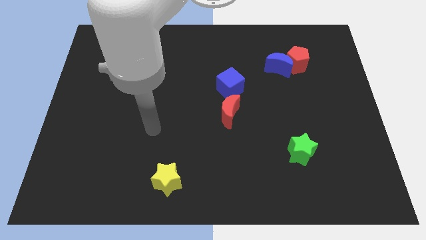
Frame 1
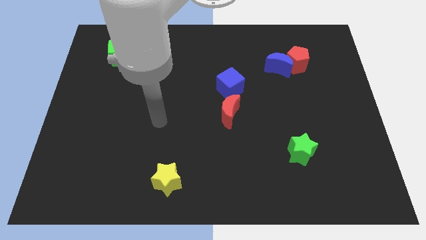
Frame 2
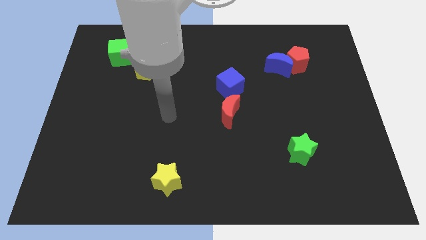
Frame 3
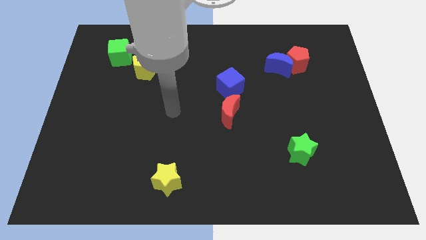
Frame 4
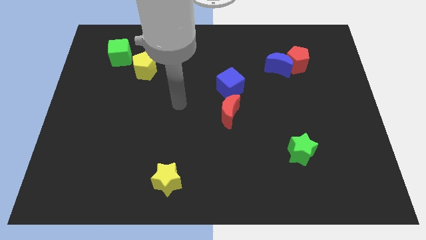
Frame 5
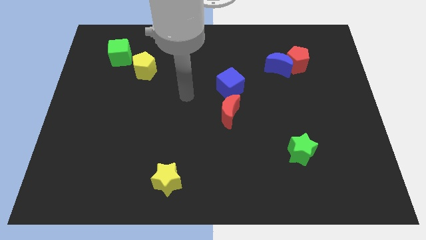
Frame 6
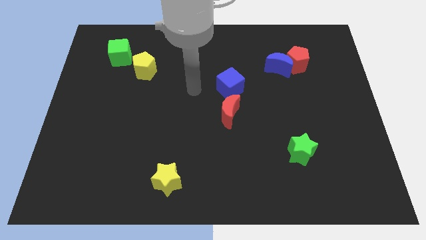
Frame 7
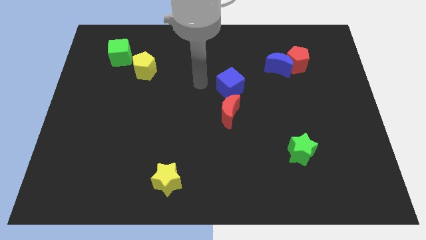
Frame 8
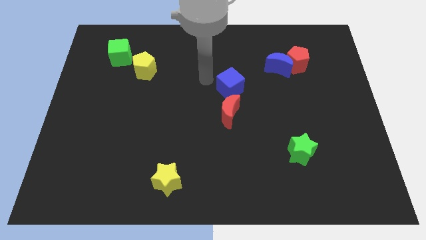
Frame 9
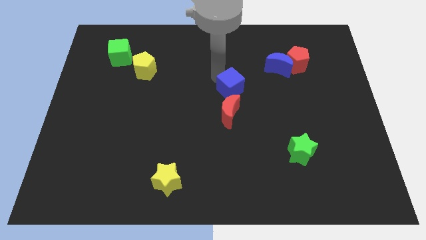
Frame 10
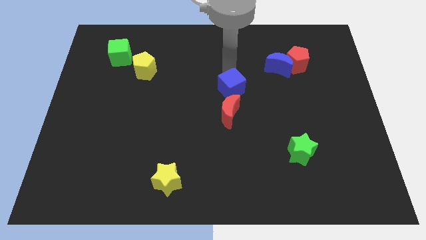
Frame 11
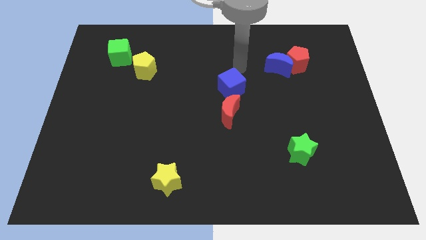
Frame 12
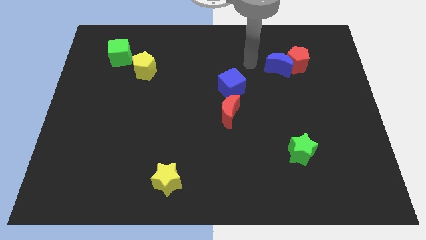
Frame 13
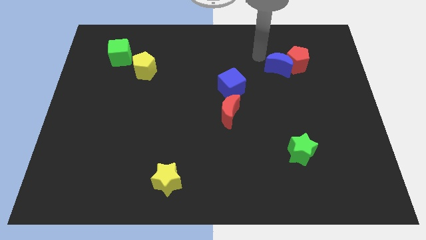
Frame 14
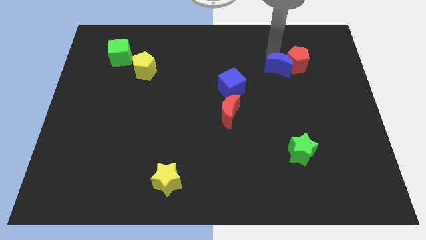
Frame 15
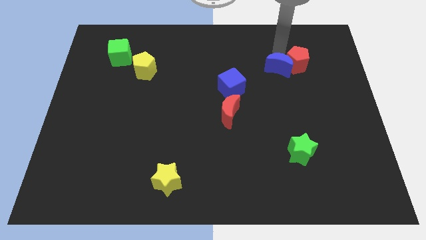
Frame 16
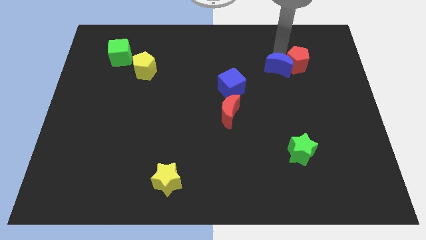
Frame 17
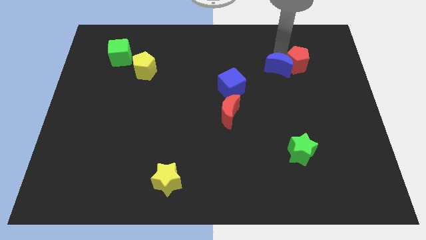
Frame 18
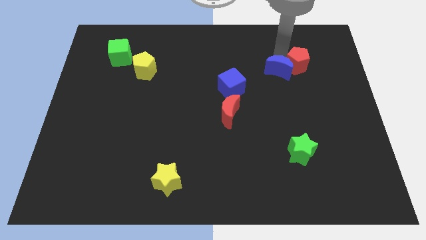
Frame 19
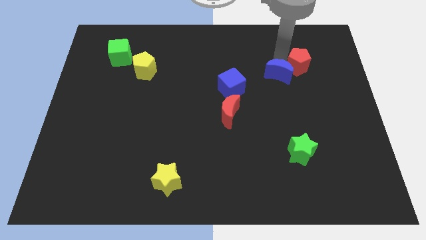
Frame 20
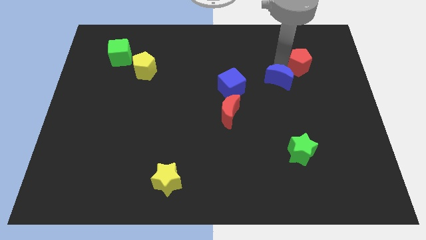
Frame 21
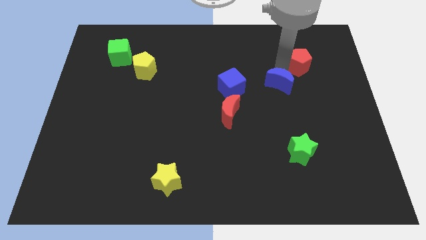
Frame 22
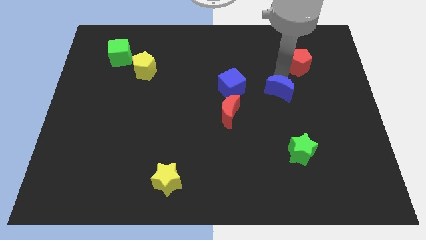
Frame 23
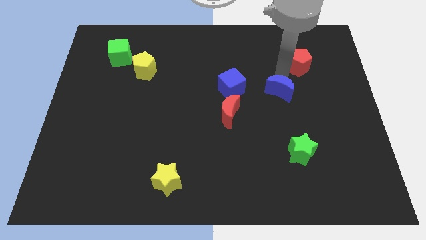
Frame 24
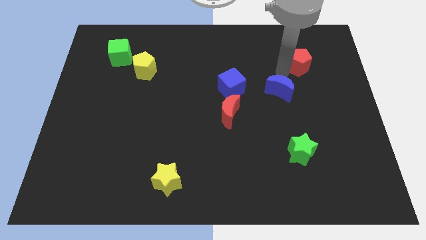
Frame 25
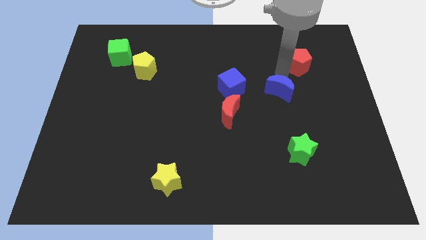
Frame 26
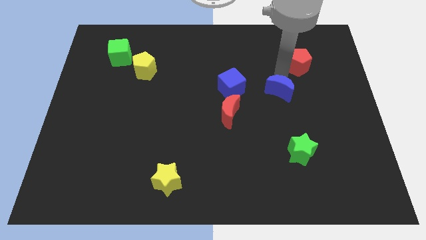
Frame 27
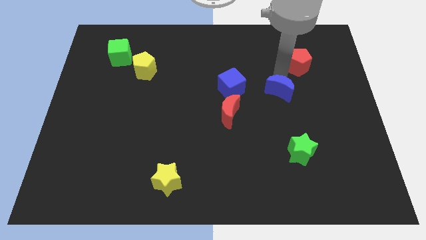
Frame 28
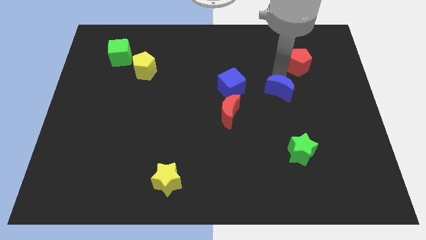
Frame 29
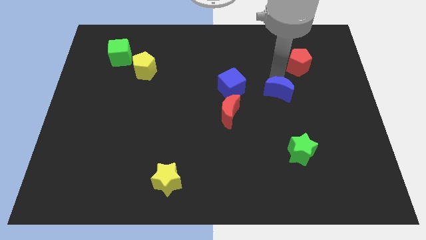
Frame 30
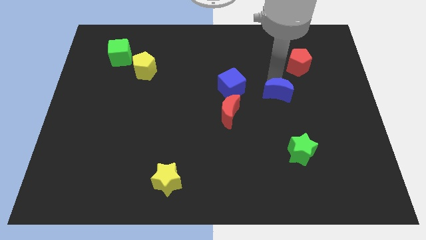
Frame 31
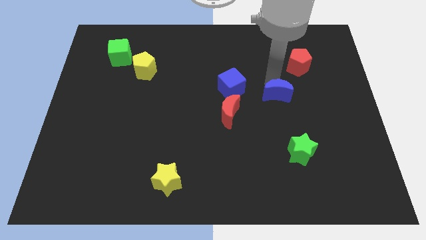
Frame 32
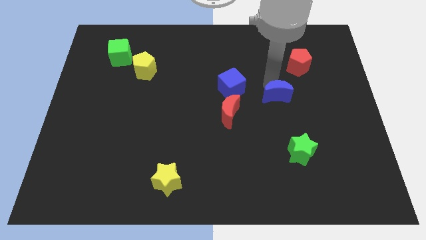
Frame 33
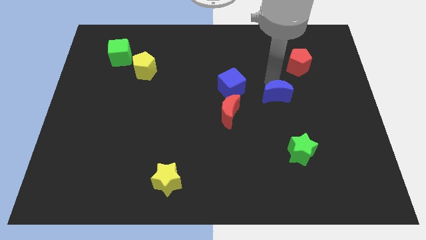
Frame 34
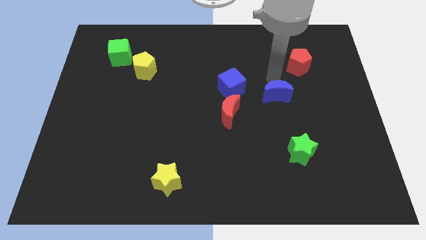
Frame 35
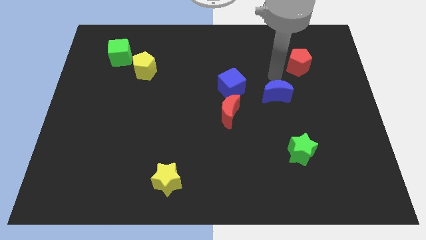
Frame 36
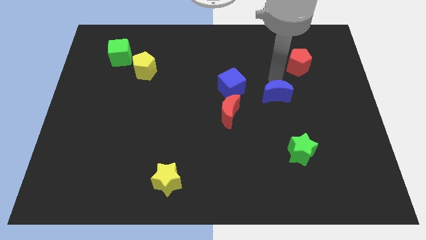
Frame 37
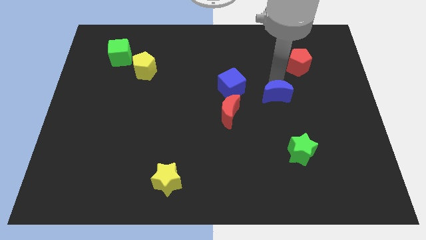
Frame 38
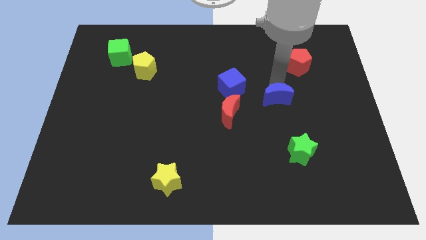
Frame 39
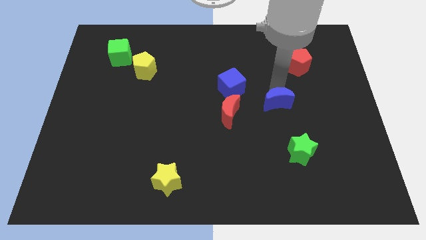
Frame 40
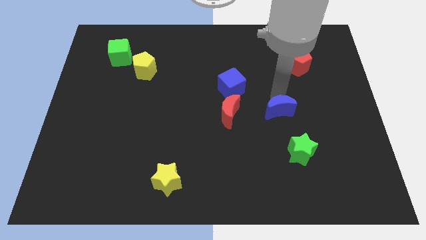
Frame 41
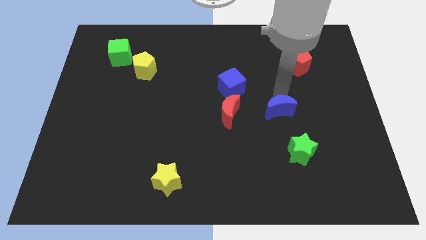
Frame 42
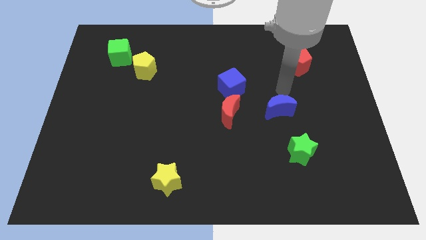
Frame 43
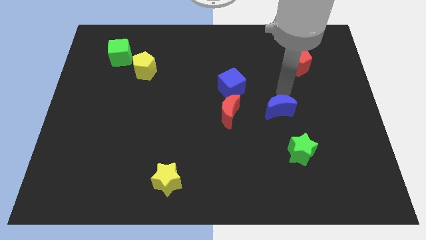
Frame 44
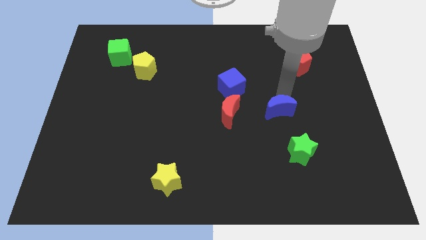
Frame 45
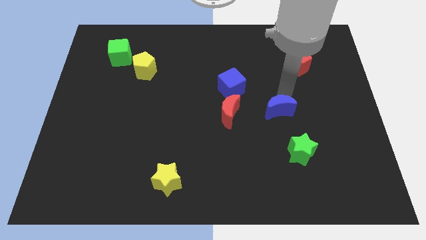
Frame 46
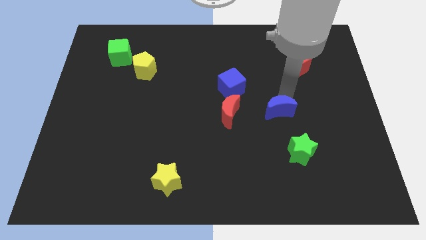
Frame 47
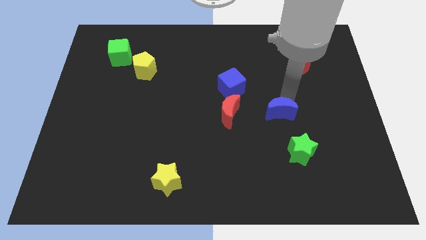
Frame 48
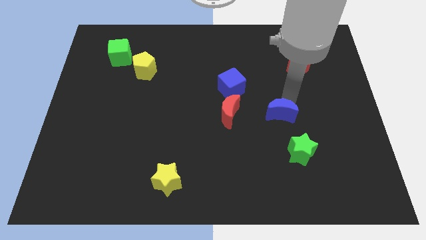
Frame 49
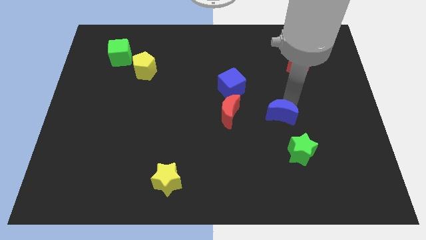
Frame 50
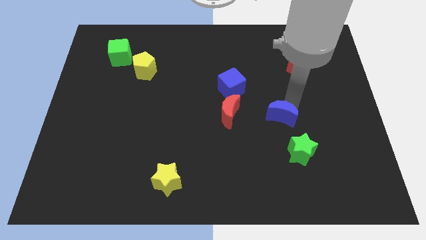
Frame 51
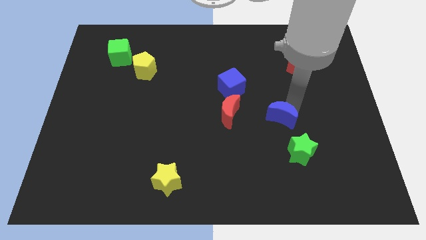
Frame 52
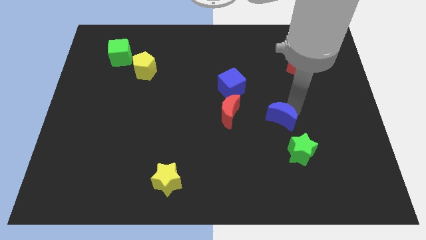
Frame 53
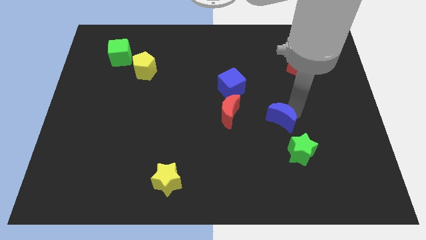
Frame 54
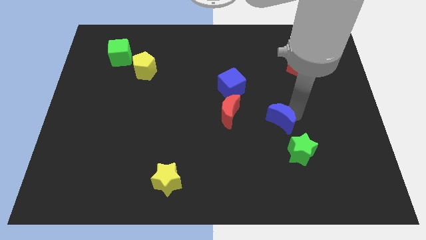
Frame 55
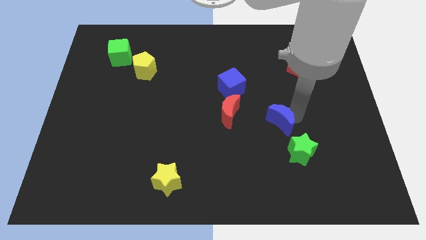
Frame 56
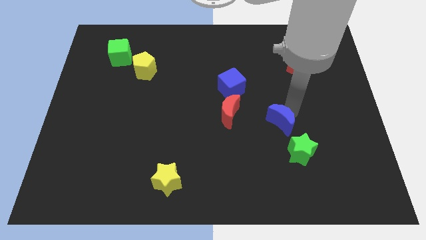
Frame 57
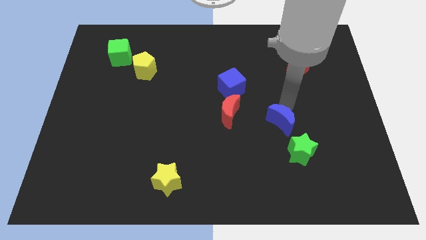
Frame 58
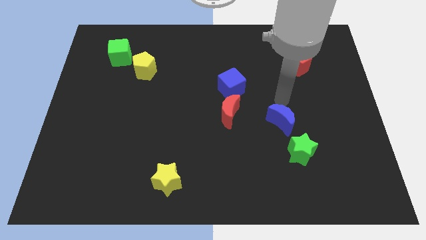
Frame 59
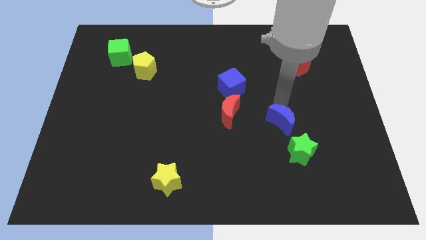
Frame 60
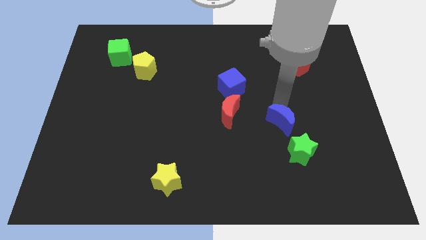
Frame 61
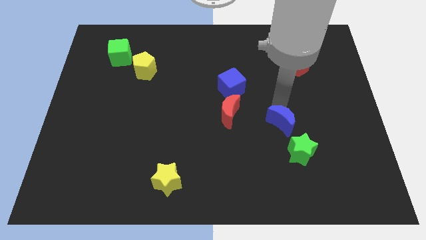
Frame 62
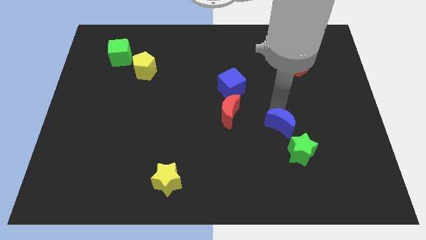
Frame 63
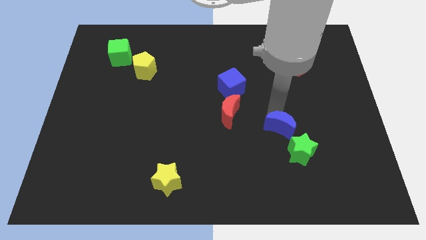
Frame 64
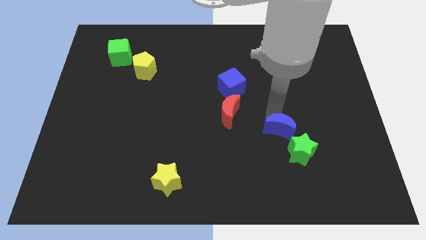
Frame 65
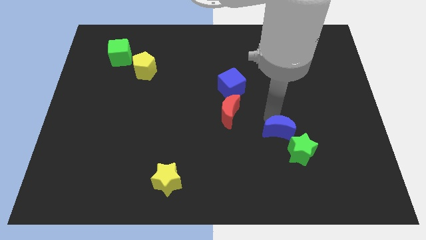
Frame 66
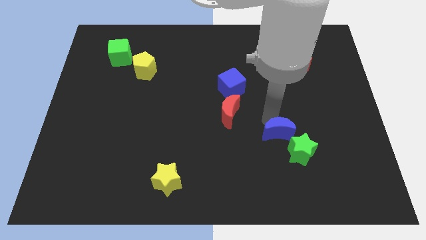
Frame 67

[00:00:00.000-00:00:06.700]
push the blue moon downwards

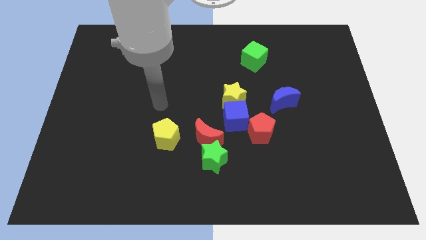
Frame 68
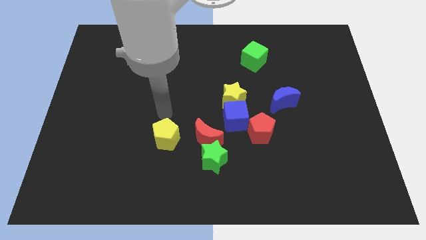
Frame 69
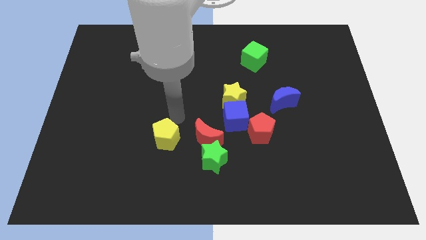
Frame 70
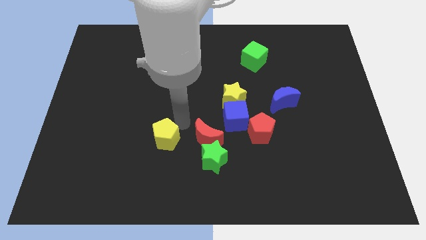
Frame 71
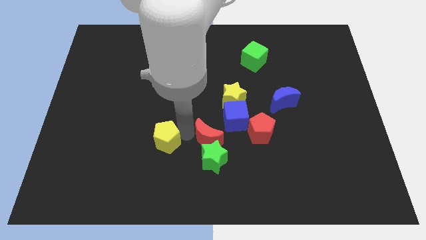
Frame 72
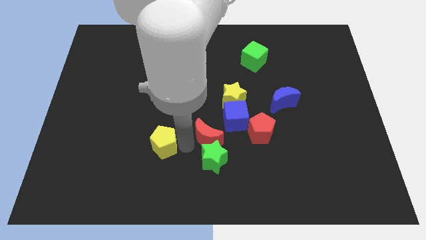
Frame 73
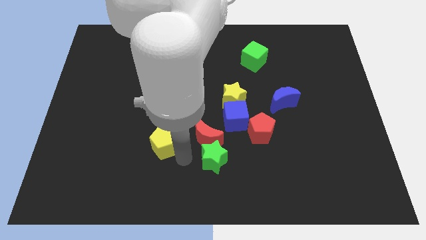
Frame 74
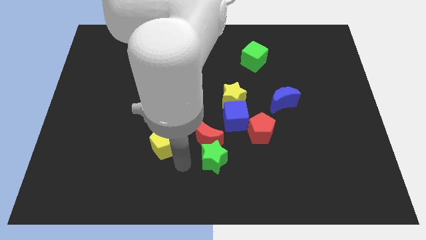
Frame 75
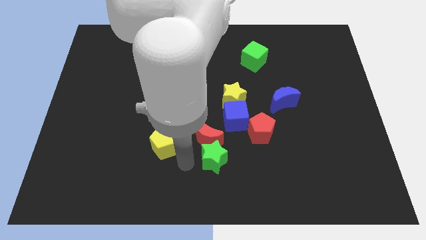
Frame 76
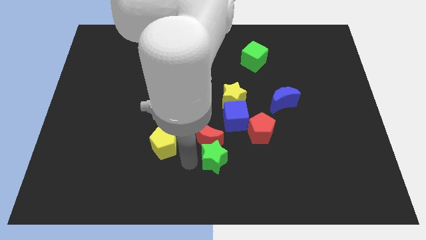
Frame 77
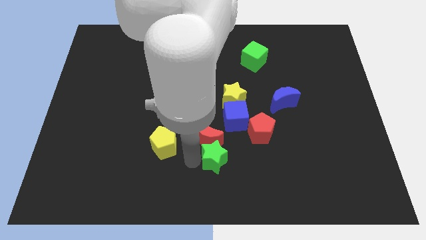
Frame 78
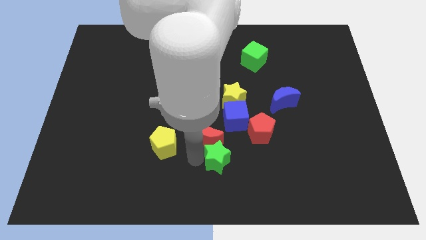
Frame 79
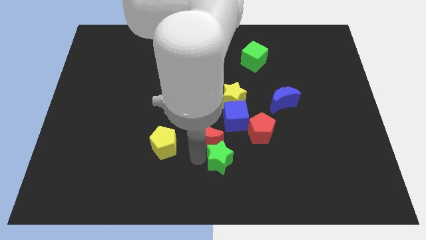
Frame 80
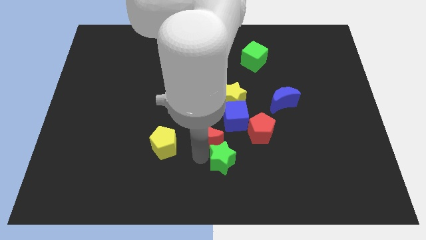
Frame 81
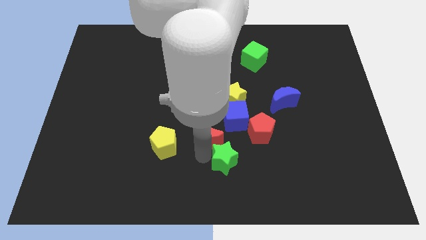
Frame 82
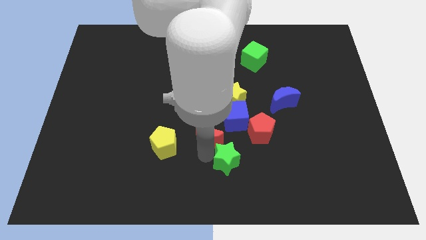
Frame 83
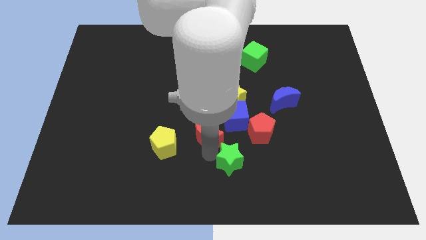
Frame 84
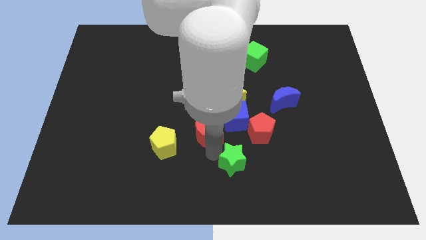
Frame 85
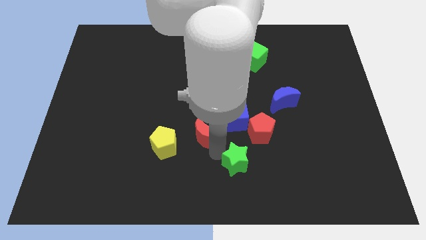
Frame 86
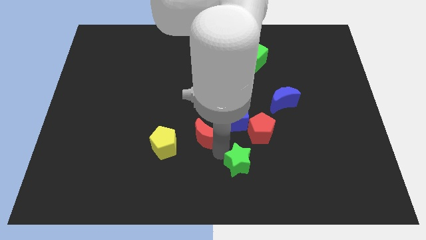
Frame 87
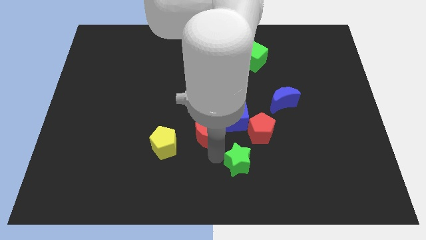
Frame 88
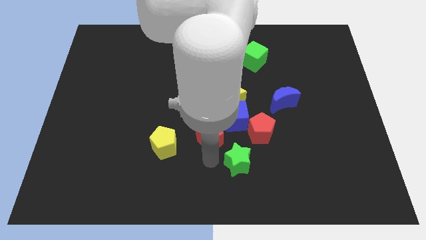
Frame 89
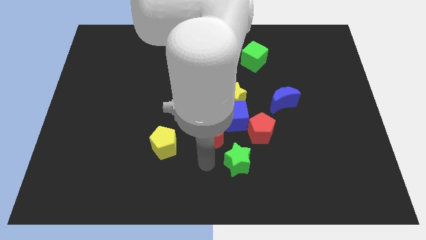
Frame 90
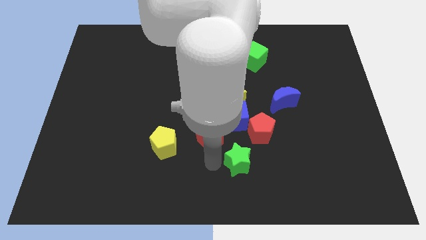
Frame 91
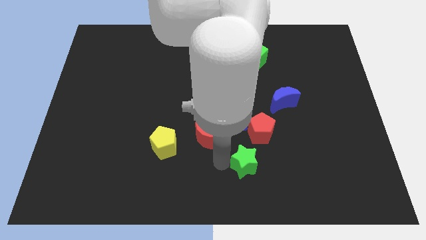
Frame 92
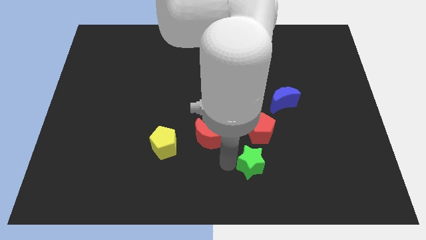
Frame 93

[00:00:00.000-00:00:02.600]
slightly move the green star right
